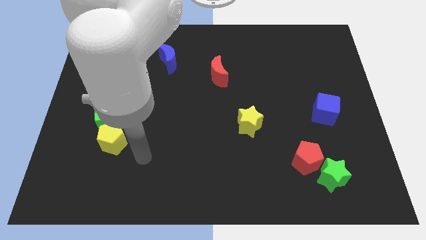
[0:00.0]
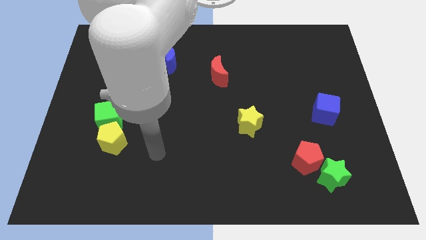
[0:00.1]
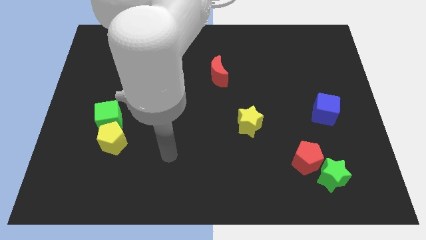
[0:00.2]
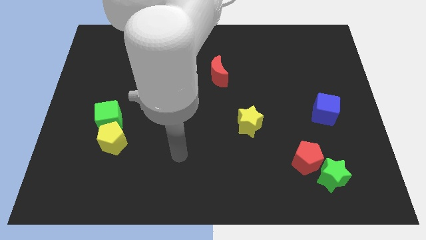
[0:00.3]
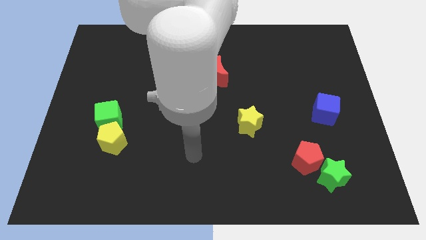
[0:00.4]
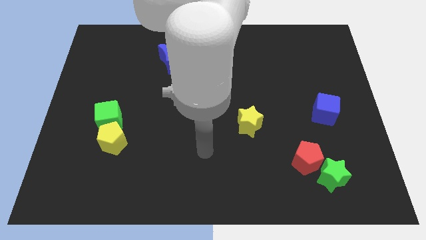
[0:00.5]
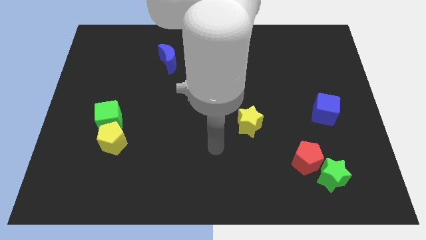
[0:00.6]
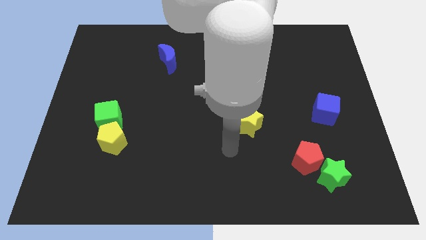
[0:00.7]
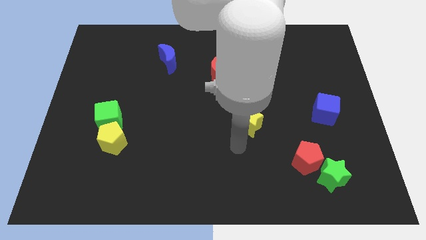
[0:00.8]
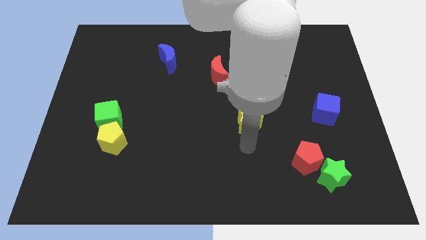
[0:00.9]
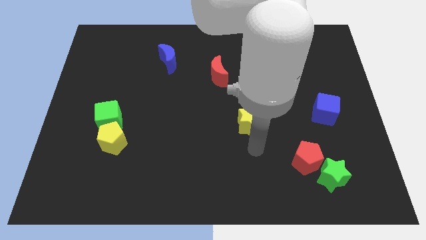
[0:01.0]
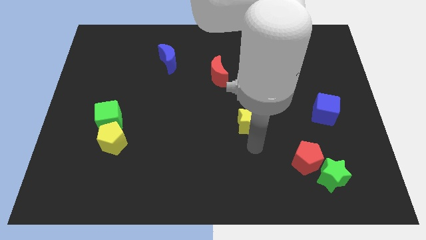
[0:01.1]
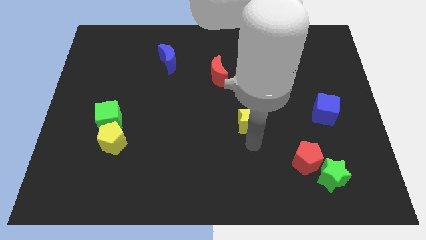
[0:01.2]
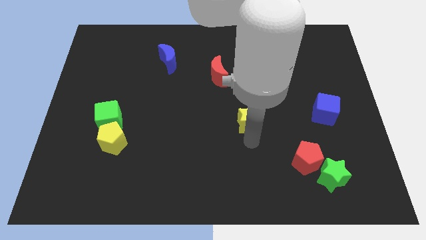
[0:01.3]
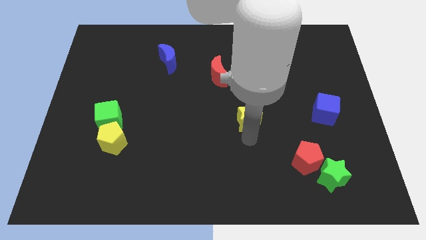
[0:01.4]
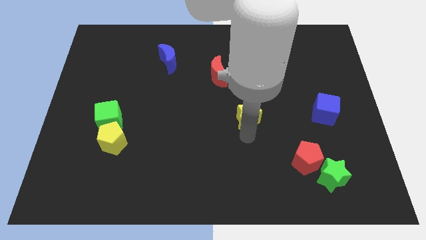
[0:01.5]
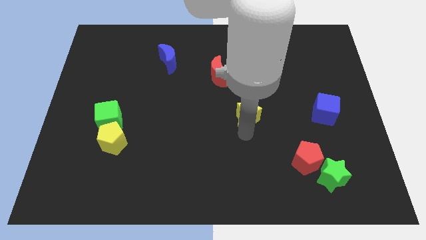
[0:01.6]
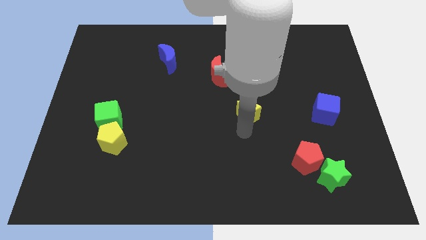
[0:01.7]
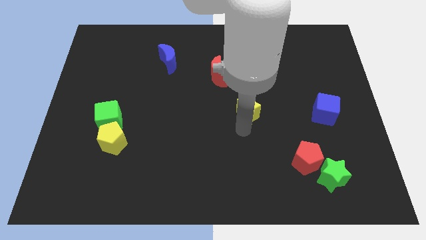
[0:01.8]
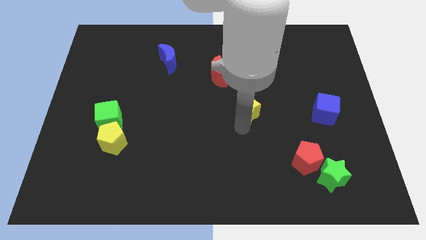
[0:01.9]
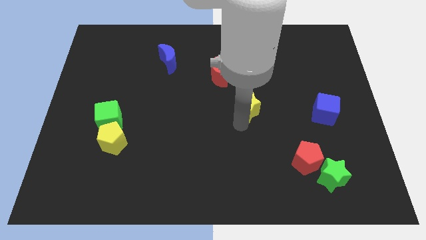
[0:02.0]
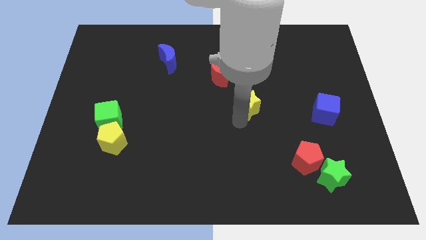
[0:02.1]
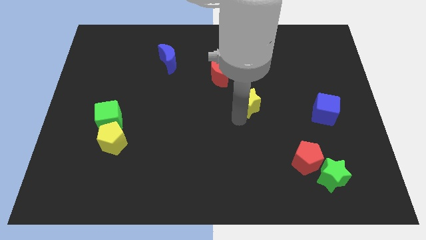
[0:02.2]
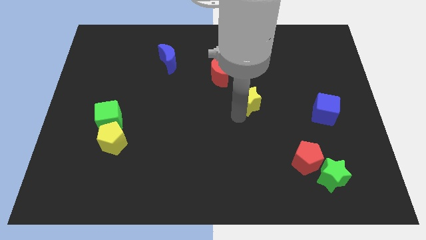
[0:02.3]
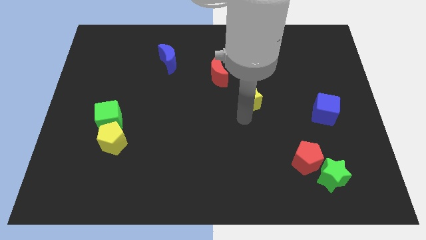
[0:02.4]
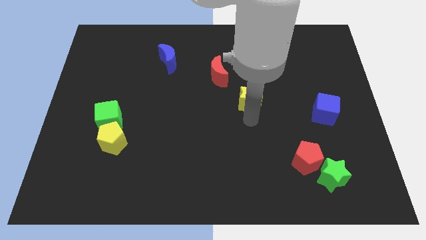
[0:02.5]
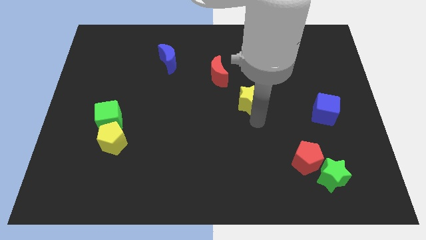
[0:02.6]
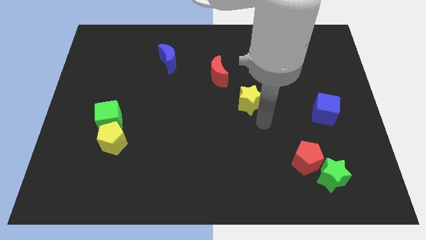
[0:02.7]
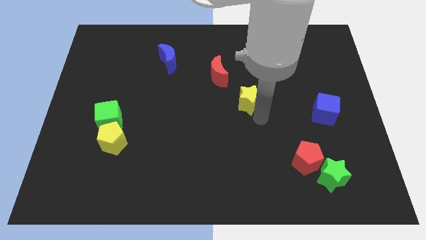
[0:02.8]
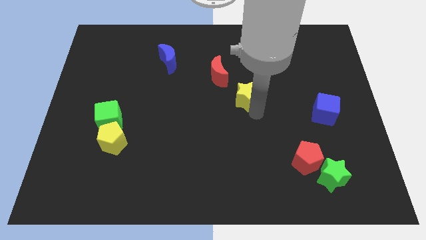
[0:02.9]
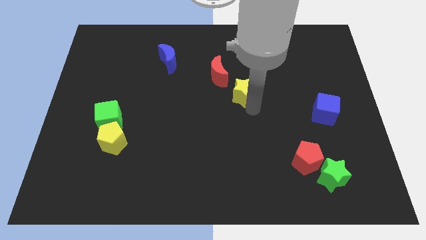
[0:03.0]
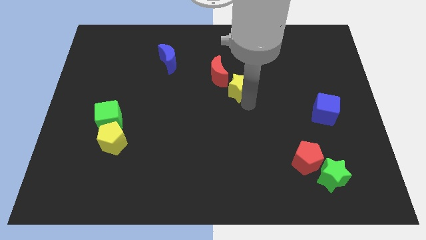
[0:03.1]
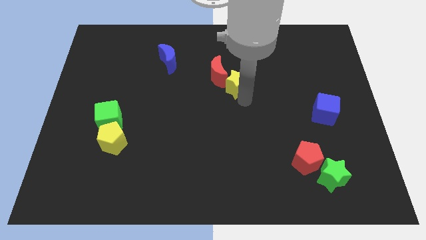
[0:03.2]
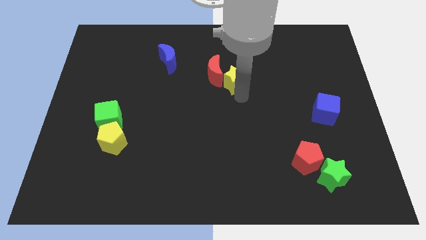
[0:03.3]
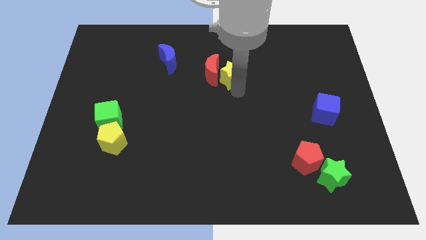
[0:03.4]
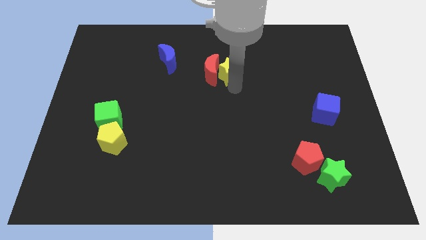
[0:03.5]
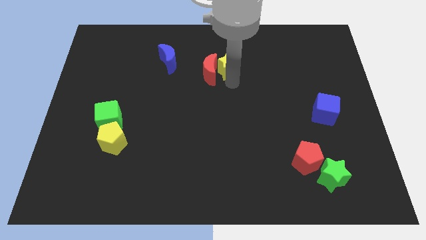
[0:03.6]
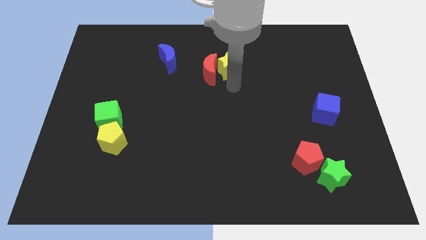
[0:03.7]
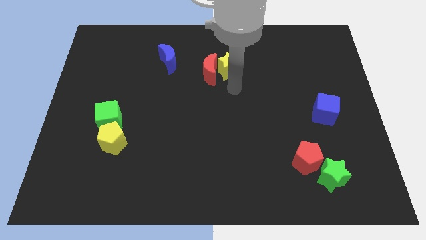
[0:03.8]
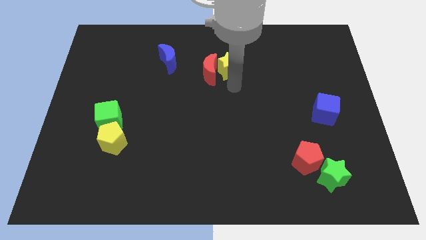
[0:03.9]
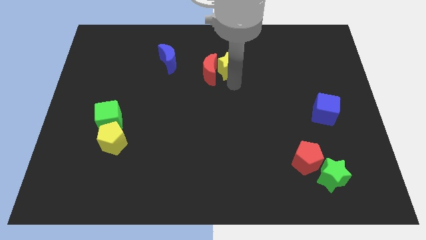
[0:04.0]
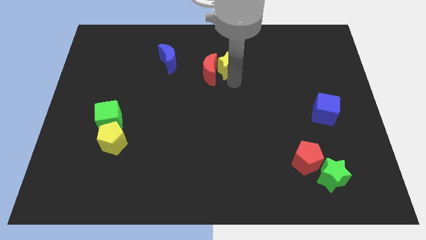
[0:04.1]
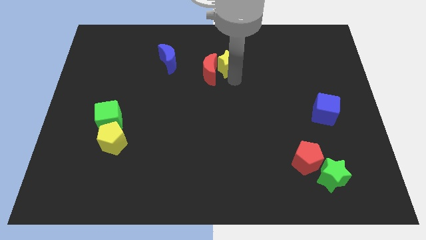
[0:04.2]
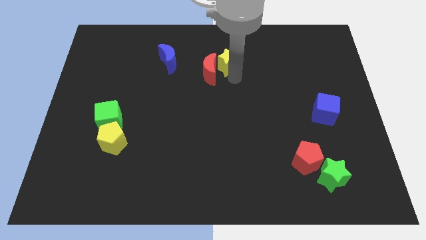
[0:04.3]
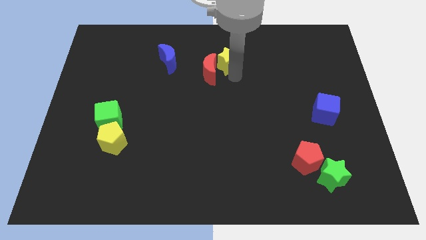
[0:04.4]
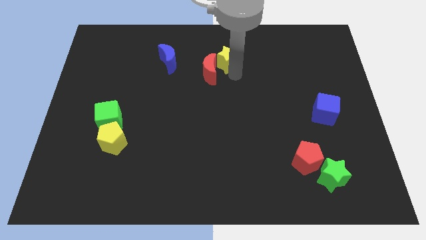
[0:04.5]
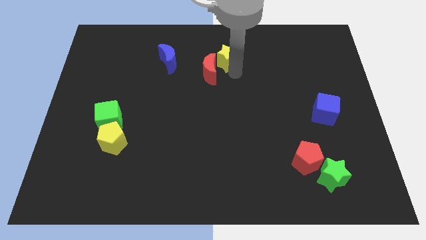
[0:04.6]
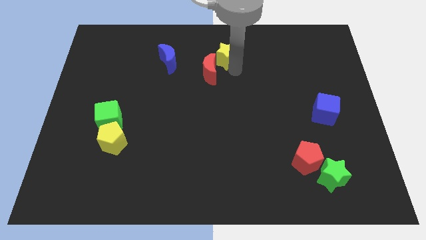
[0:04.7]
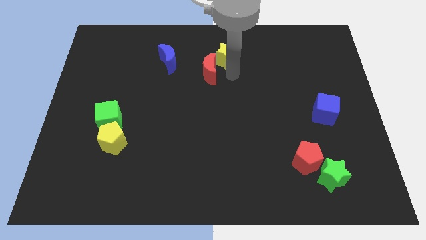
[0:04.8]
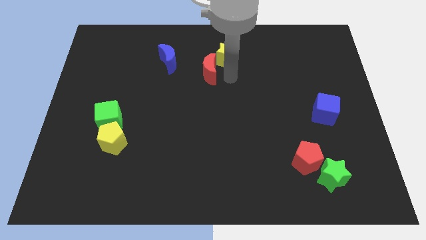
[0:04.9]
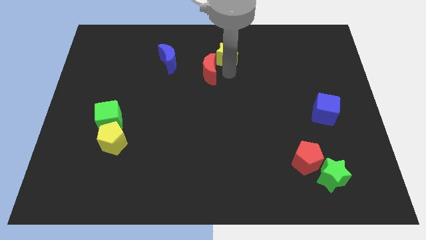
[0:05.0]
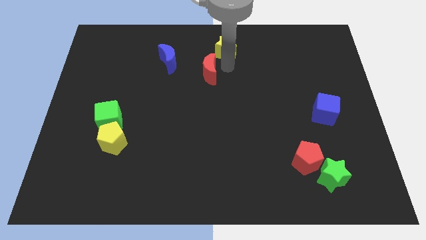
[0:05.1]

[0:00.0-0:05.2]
slide the yellow star to the top side
